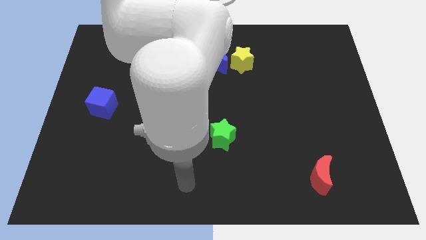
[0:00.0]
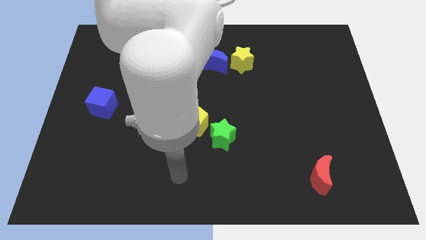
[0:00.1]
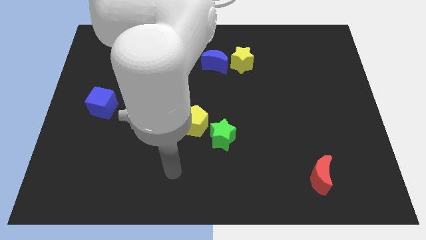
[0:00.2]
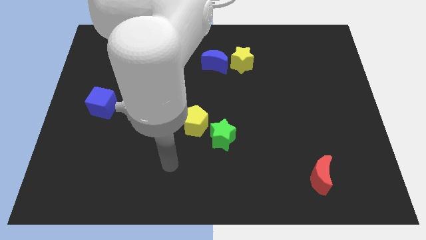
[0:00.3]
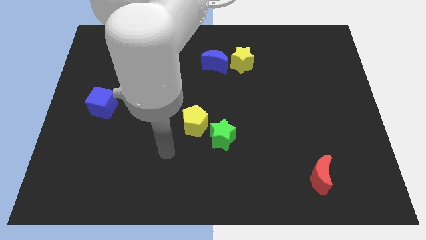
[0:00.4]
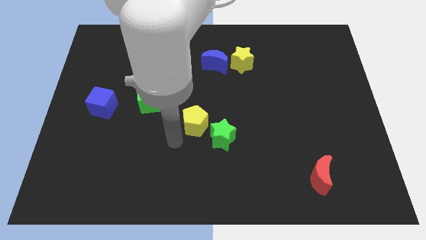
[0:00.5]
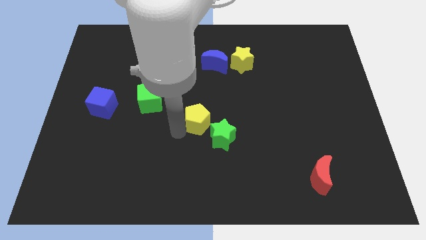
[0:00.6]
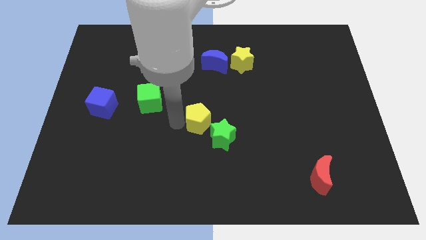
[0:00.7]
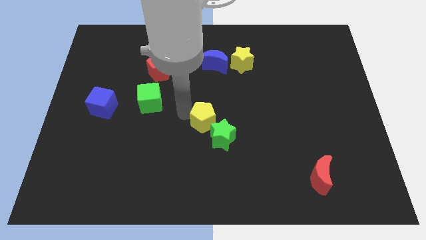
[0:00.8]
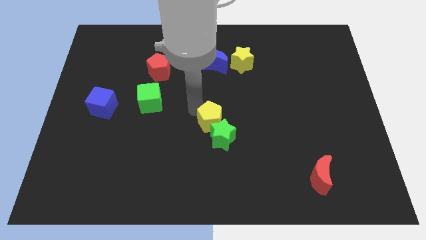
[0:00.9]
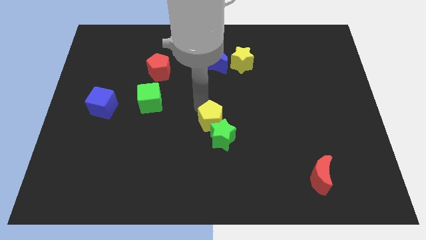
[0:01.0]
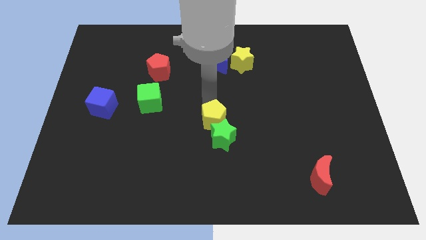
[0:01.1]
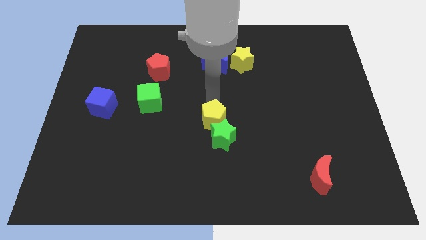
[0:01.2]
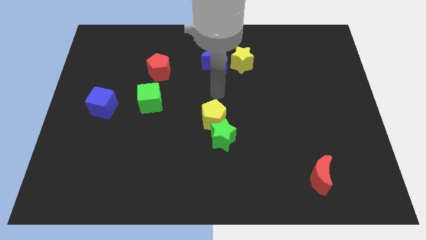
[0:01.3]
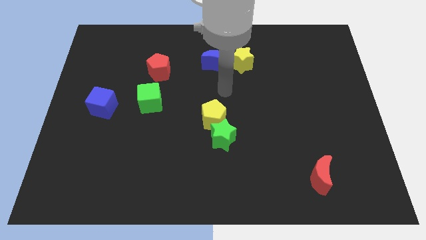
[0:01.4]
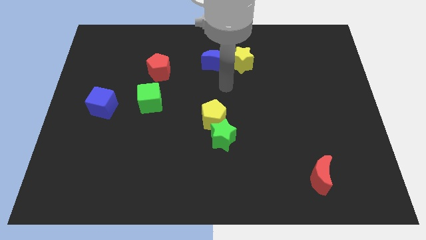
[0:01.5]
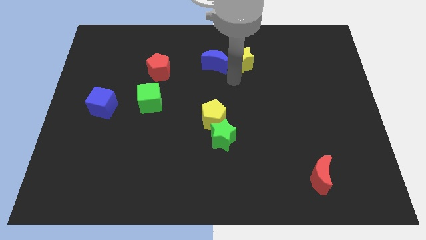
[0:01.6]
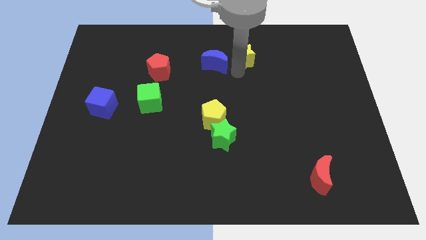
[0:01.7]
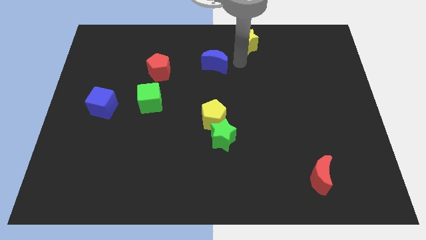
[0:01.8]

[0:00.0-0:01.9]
pull the blue moon apart from the yellow star

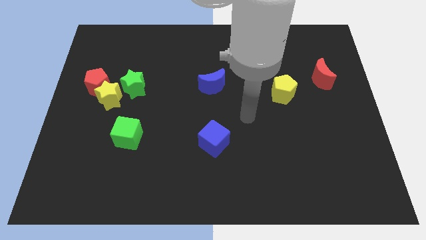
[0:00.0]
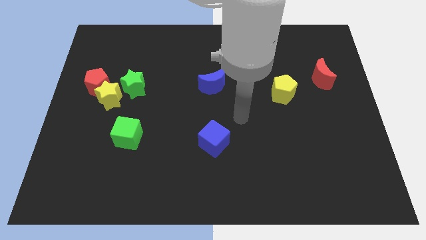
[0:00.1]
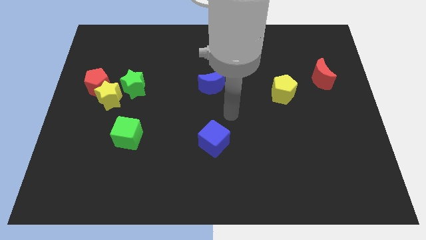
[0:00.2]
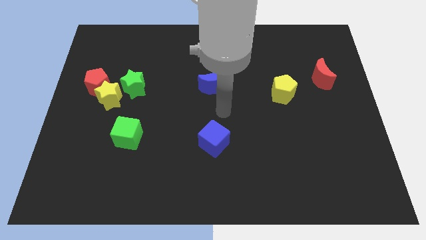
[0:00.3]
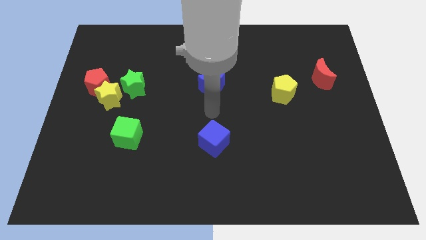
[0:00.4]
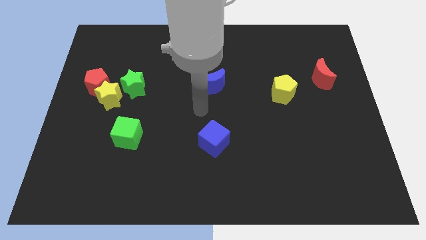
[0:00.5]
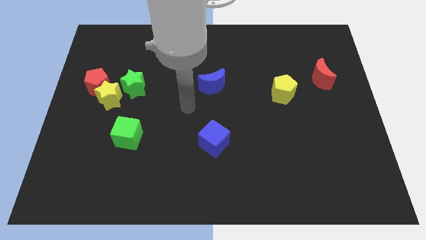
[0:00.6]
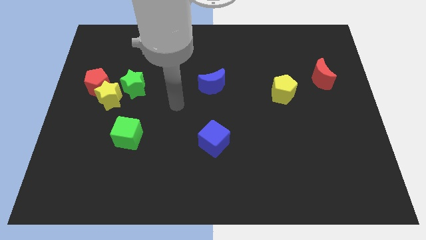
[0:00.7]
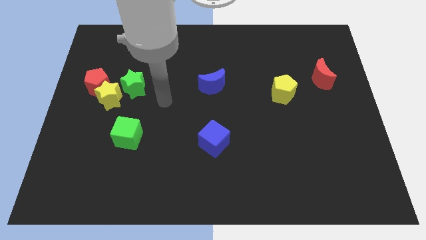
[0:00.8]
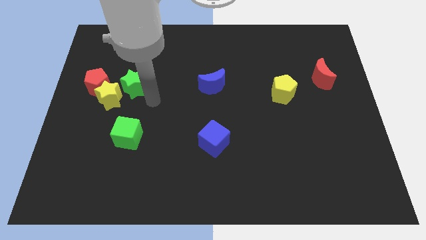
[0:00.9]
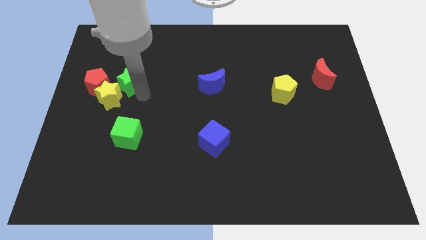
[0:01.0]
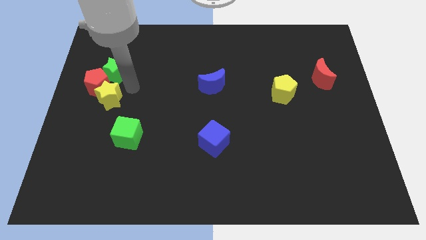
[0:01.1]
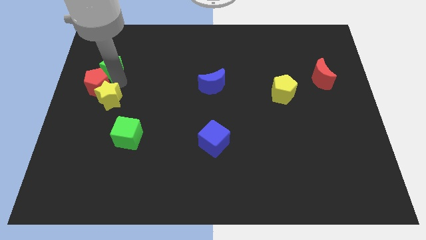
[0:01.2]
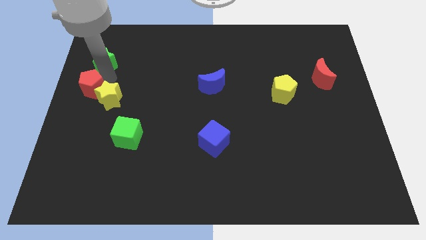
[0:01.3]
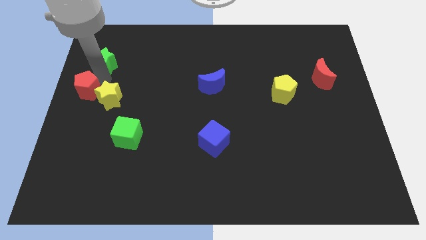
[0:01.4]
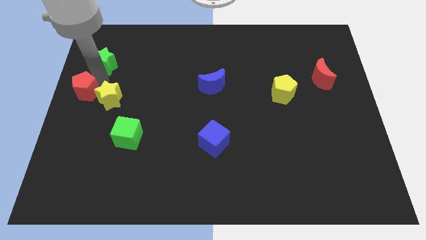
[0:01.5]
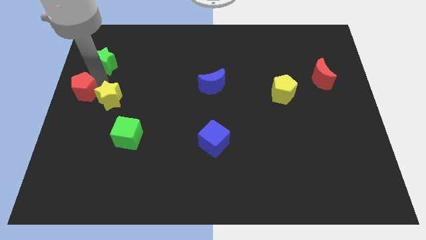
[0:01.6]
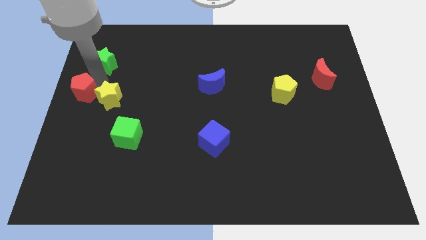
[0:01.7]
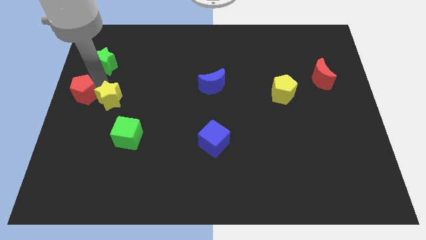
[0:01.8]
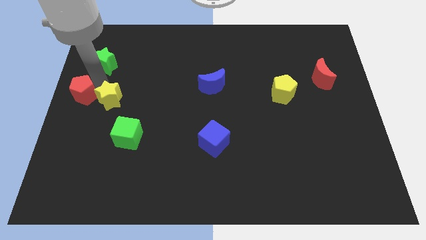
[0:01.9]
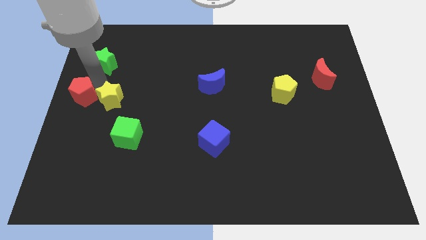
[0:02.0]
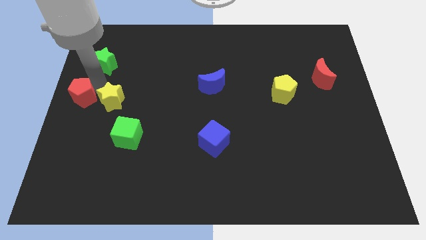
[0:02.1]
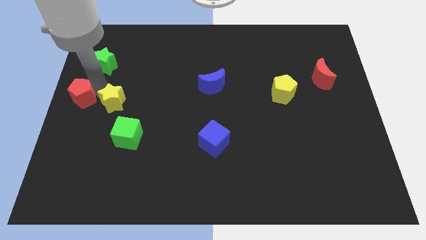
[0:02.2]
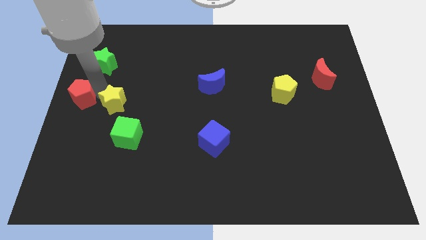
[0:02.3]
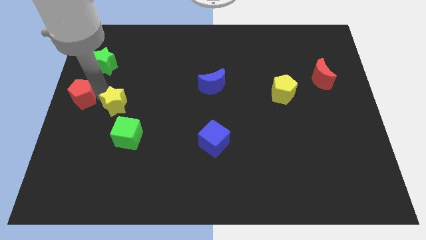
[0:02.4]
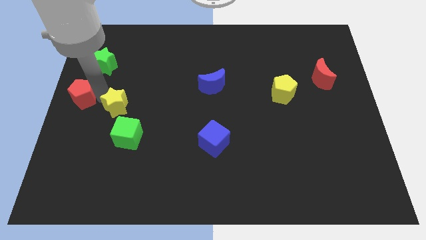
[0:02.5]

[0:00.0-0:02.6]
separate the yellow star from the red pentagon and green star

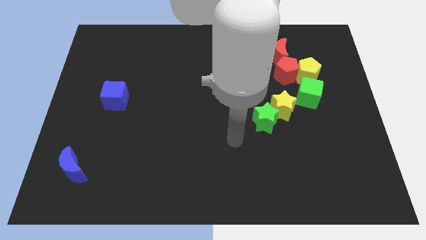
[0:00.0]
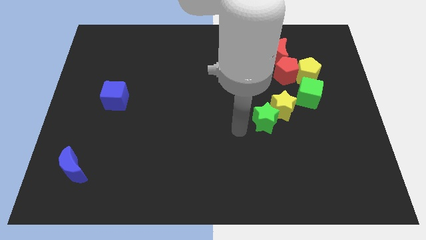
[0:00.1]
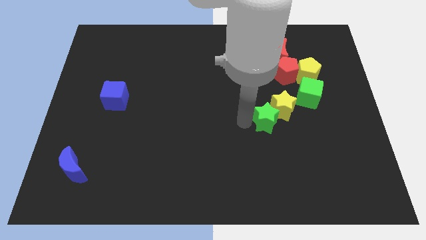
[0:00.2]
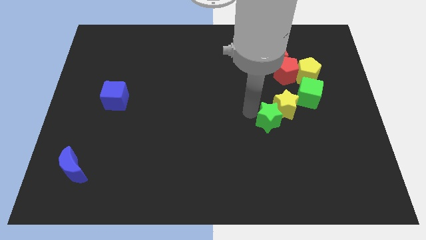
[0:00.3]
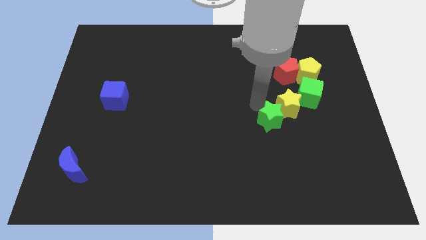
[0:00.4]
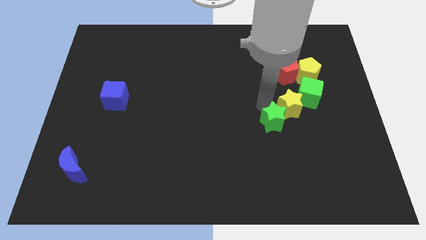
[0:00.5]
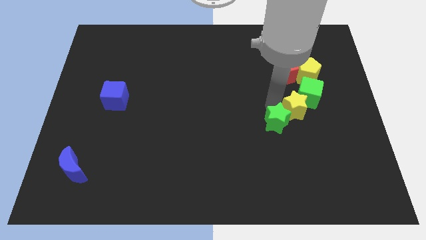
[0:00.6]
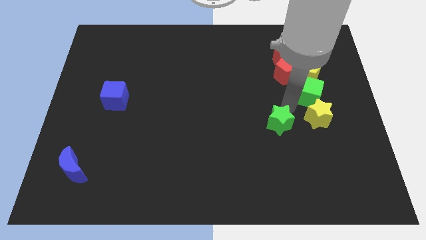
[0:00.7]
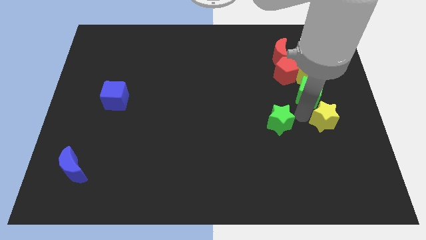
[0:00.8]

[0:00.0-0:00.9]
separate the green star from the yellow star

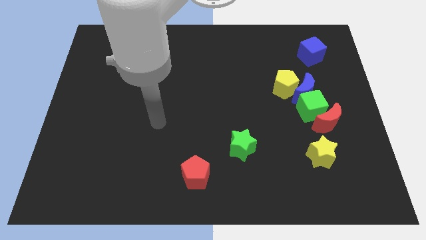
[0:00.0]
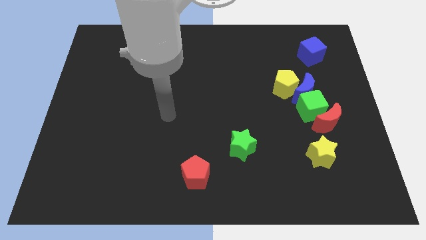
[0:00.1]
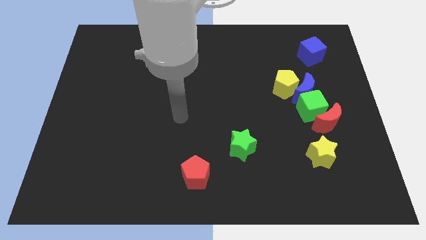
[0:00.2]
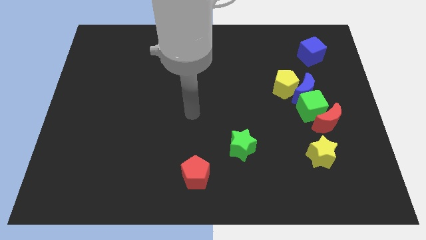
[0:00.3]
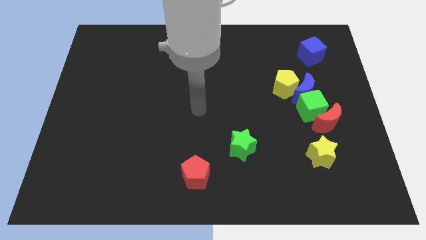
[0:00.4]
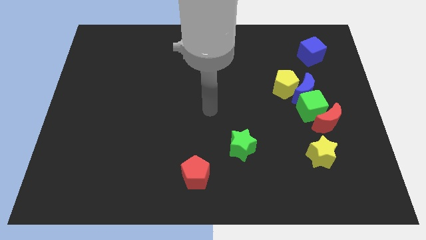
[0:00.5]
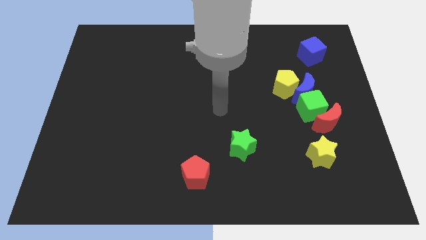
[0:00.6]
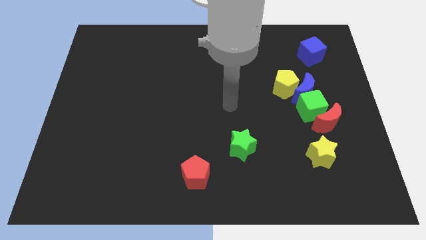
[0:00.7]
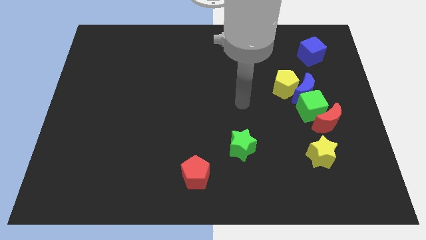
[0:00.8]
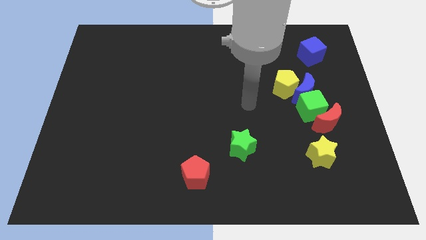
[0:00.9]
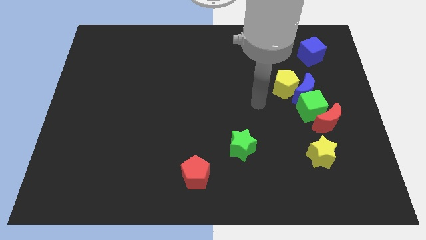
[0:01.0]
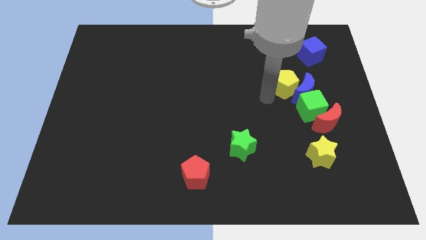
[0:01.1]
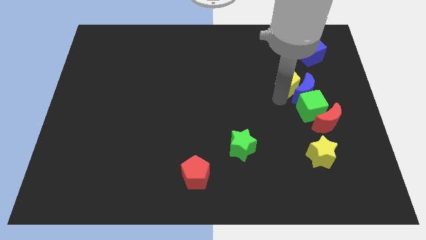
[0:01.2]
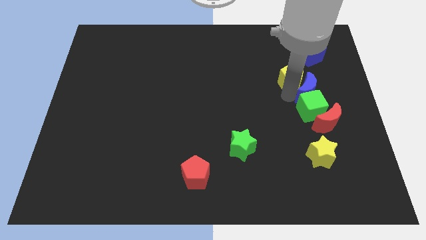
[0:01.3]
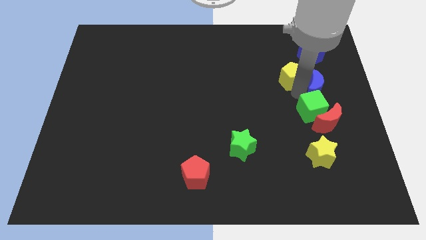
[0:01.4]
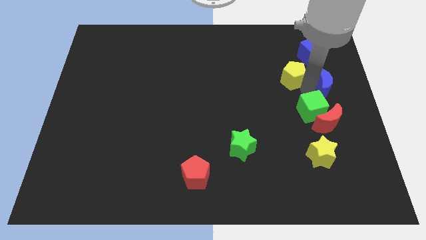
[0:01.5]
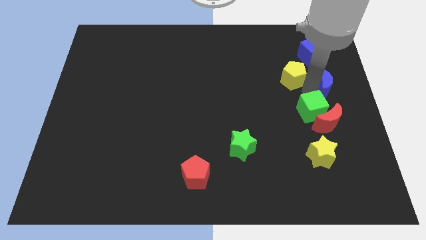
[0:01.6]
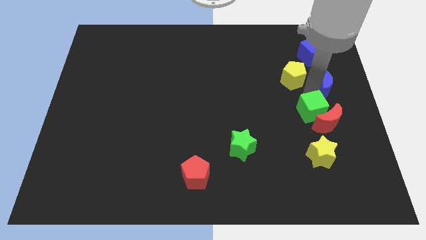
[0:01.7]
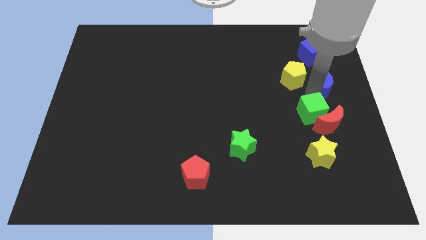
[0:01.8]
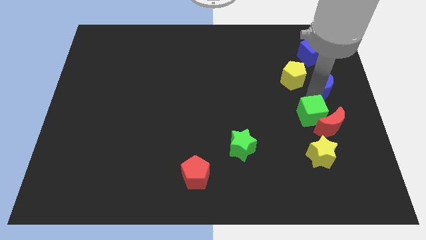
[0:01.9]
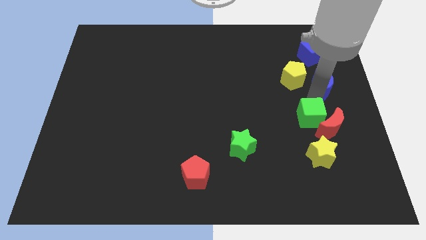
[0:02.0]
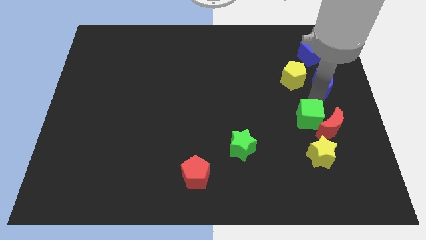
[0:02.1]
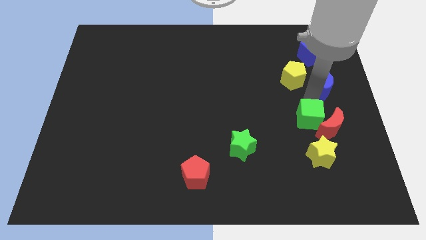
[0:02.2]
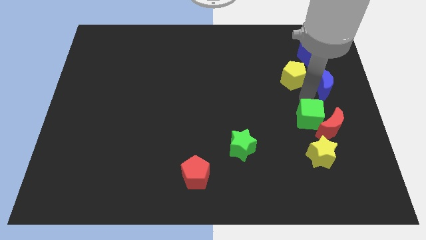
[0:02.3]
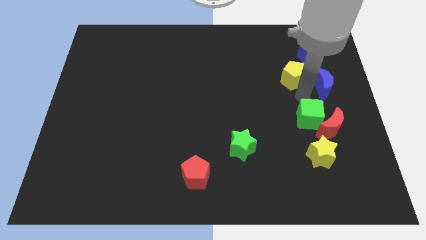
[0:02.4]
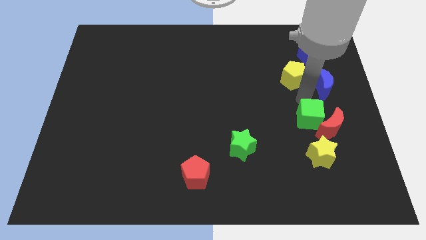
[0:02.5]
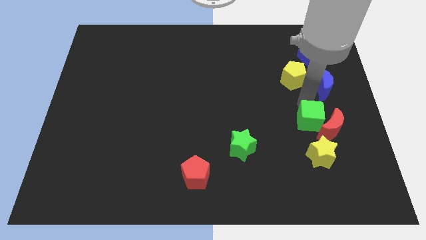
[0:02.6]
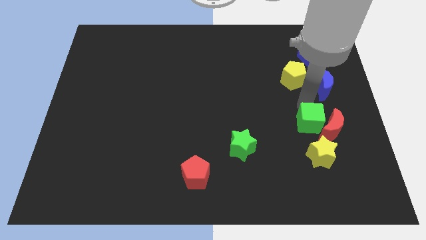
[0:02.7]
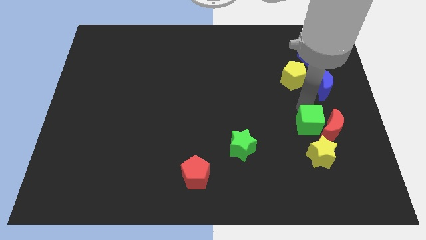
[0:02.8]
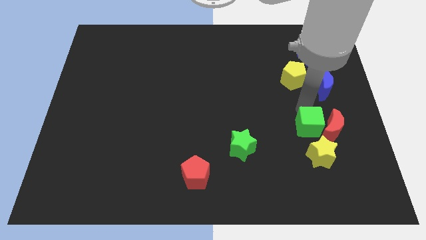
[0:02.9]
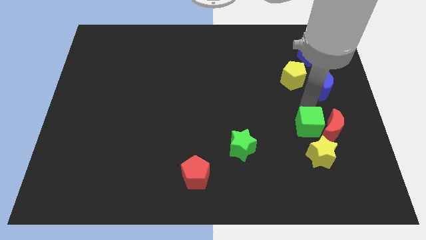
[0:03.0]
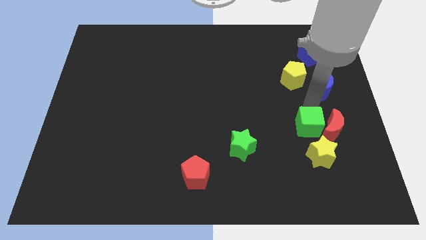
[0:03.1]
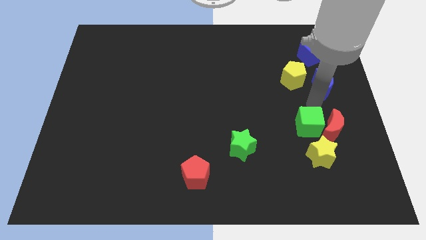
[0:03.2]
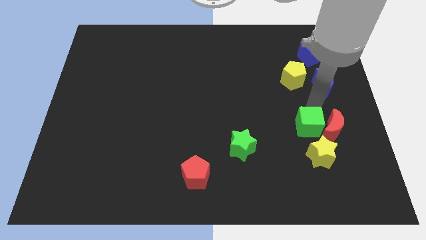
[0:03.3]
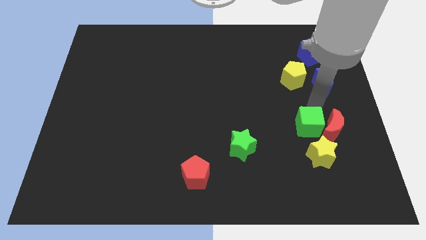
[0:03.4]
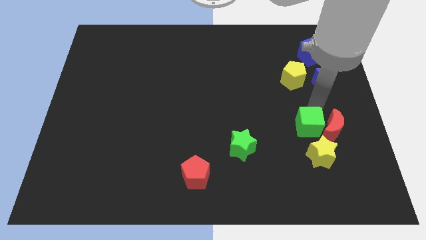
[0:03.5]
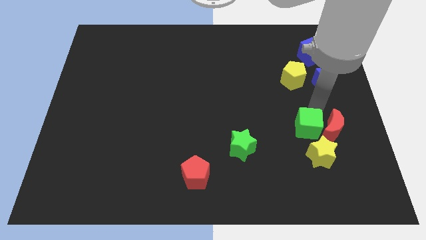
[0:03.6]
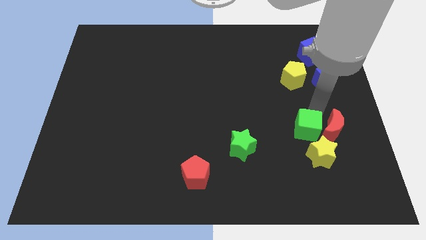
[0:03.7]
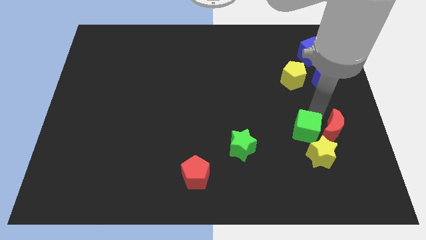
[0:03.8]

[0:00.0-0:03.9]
separate the green cube from the group of blocks

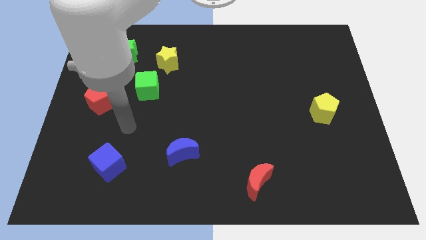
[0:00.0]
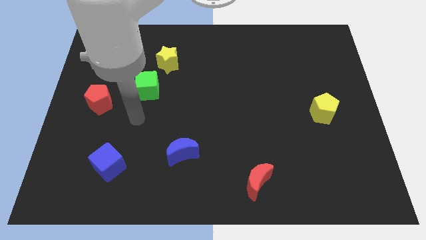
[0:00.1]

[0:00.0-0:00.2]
separate the green cube from the yellow star
